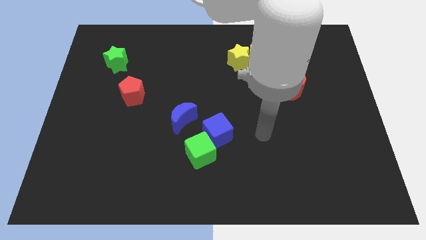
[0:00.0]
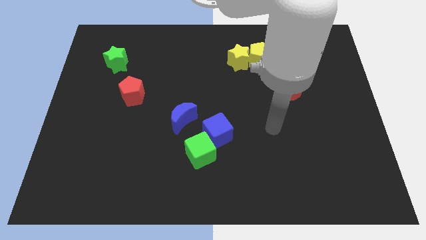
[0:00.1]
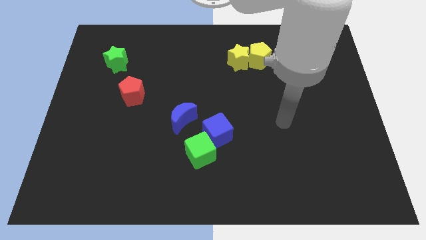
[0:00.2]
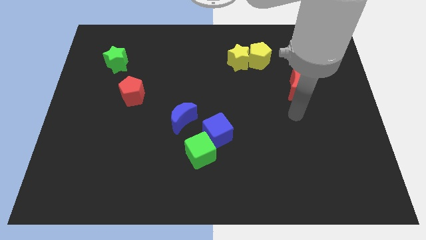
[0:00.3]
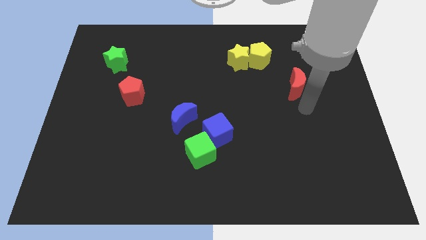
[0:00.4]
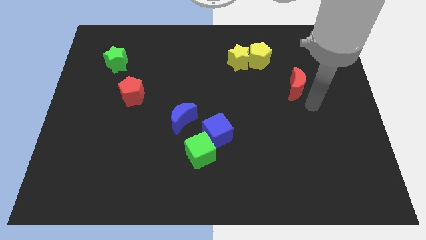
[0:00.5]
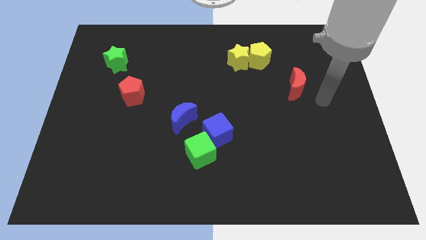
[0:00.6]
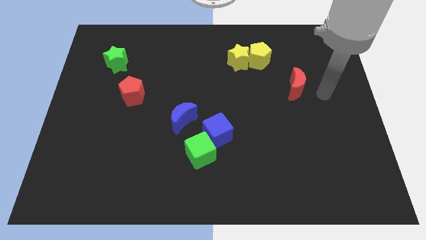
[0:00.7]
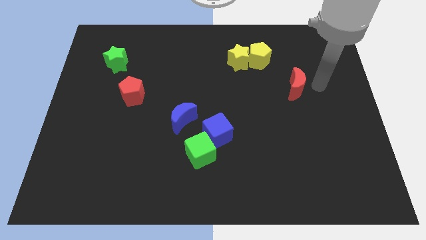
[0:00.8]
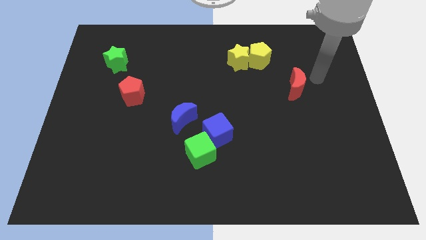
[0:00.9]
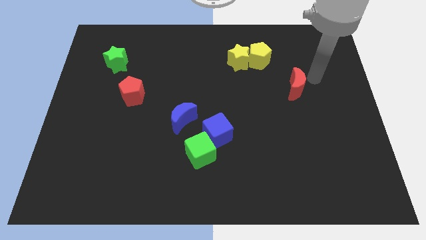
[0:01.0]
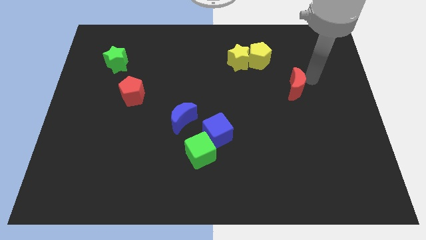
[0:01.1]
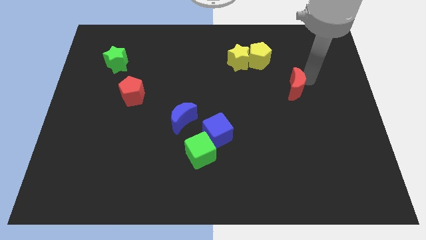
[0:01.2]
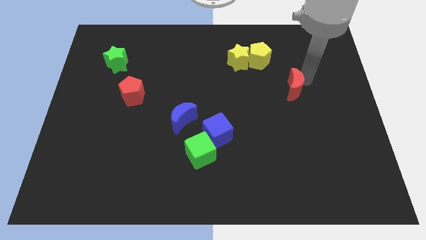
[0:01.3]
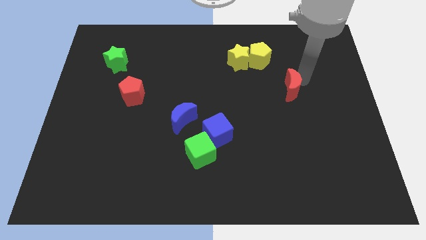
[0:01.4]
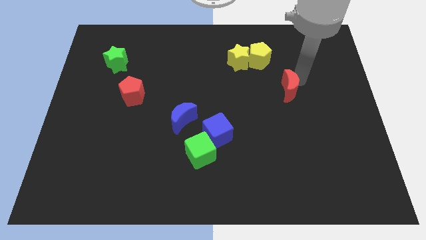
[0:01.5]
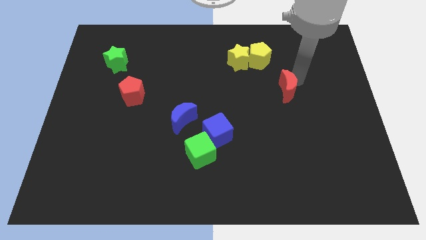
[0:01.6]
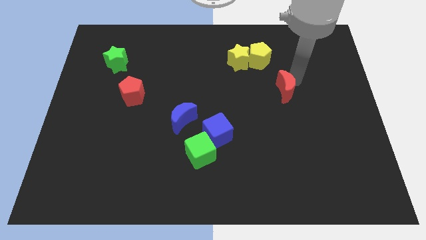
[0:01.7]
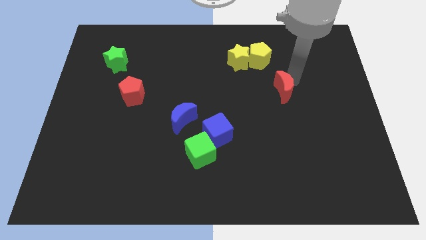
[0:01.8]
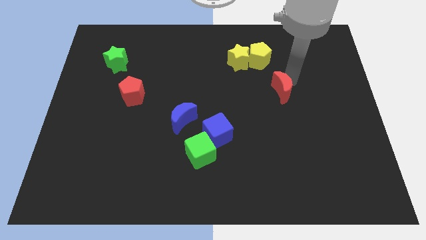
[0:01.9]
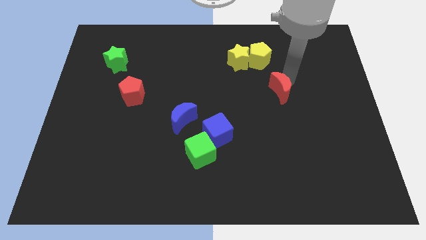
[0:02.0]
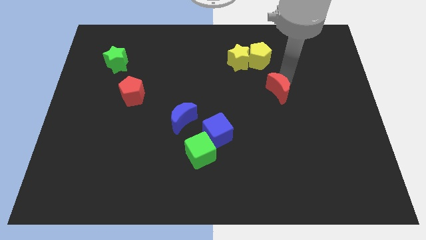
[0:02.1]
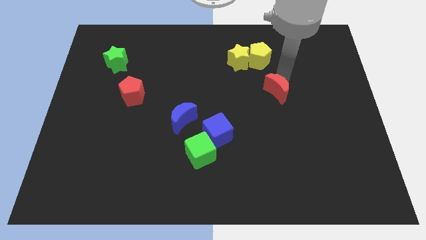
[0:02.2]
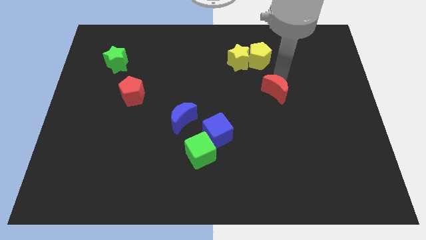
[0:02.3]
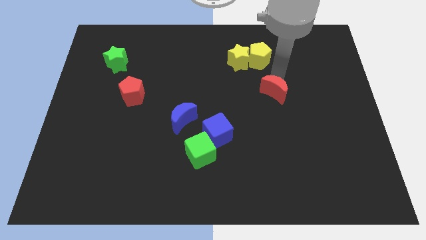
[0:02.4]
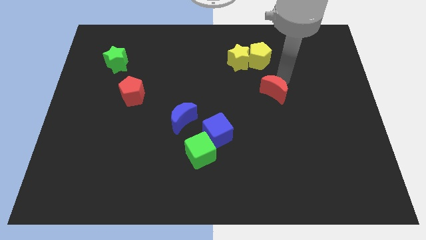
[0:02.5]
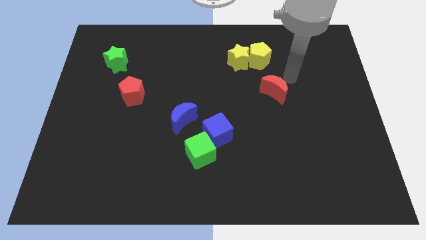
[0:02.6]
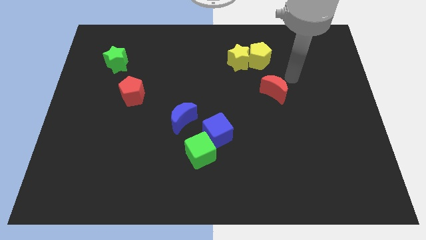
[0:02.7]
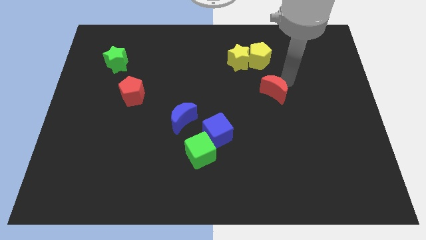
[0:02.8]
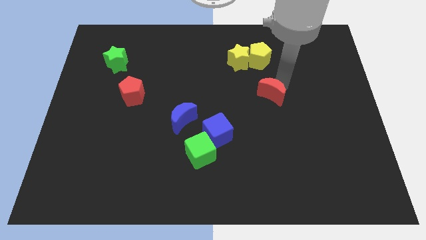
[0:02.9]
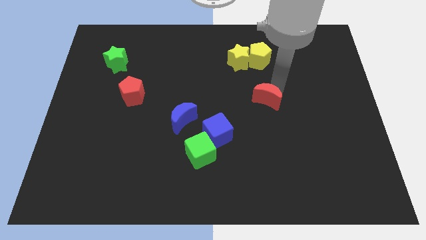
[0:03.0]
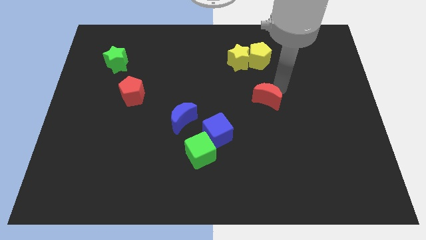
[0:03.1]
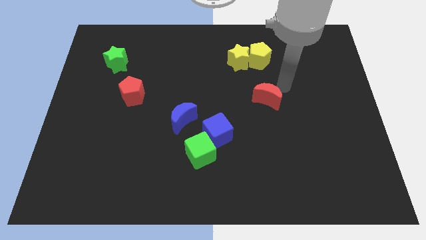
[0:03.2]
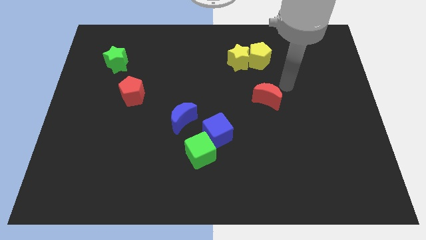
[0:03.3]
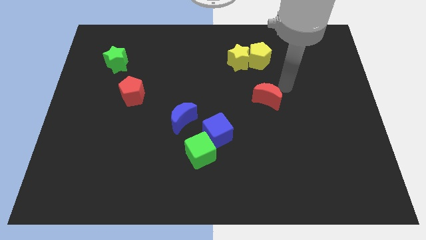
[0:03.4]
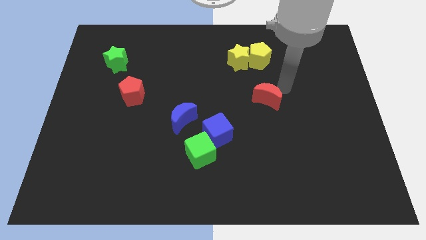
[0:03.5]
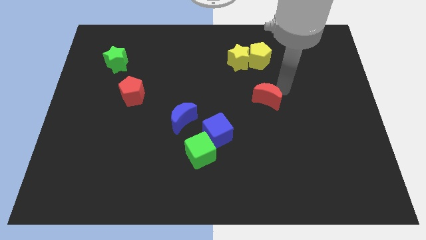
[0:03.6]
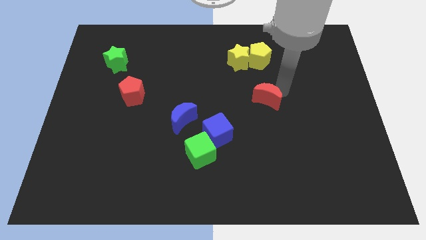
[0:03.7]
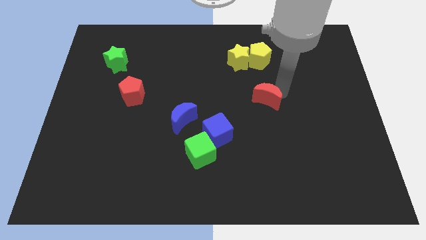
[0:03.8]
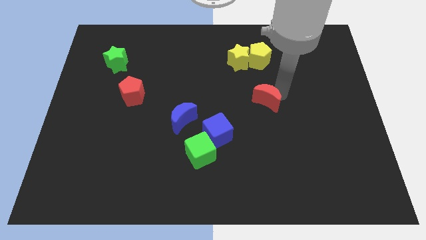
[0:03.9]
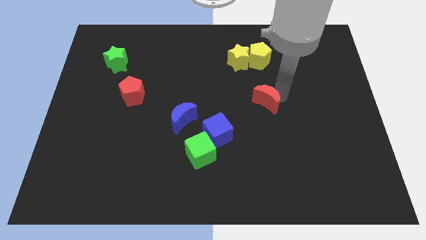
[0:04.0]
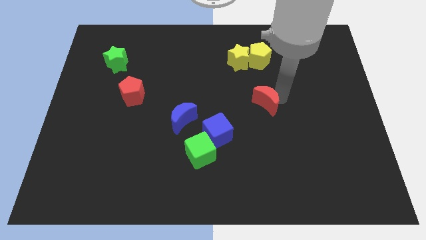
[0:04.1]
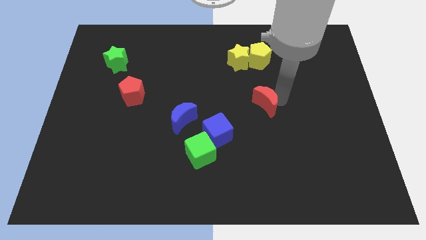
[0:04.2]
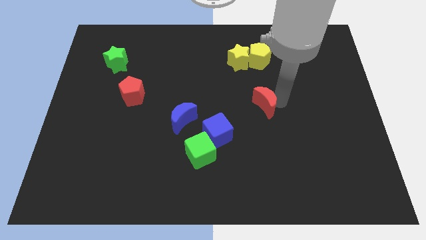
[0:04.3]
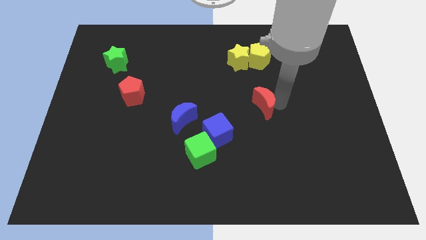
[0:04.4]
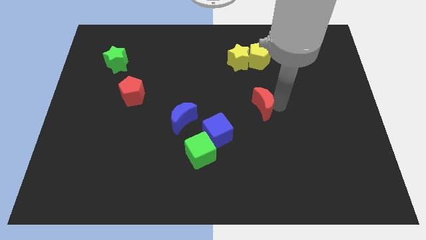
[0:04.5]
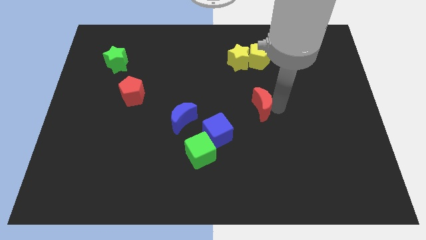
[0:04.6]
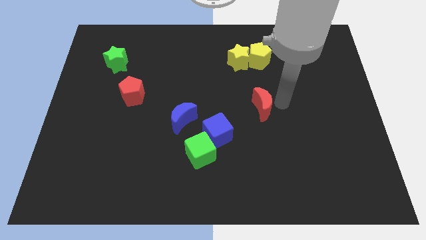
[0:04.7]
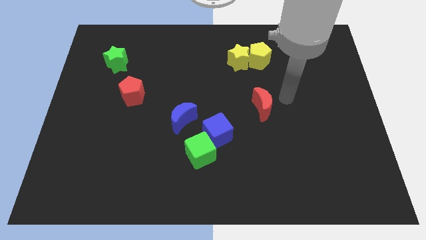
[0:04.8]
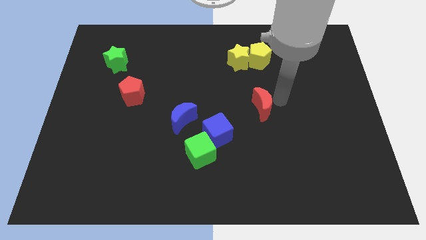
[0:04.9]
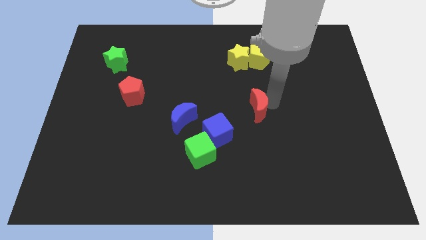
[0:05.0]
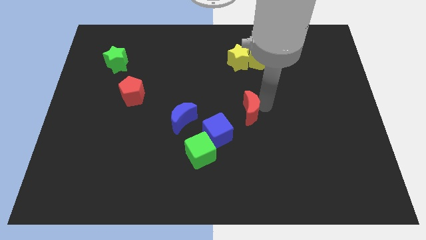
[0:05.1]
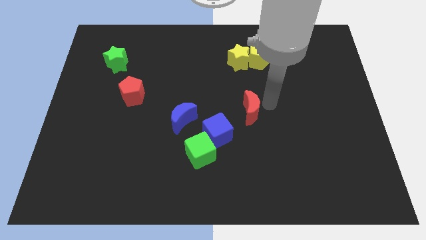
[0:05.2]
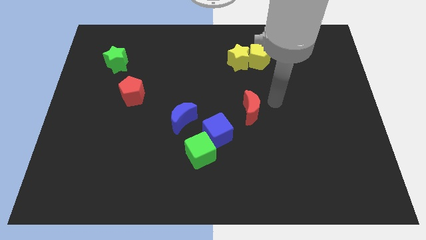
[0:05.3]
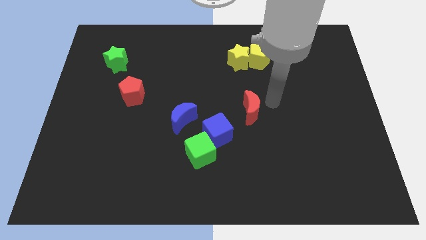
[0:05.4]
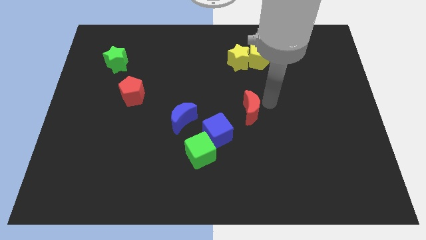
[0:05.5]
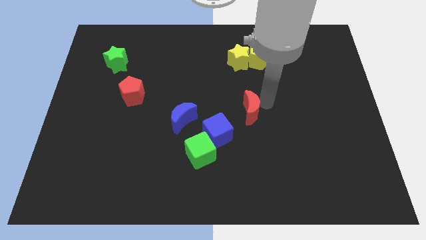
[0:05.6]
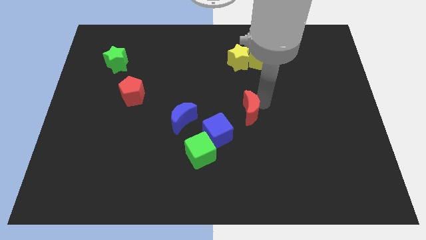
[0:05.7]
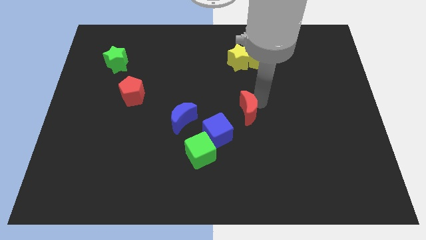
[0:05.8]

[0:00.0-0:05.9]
move the red moon to the right of the blue moon

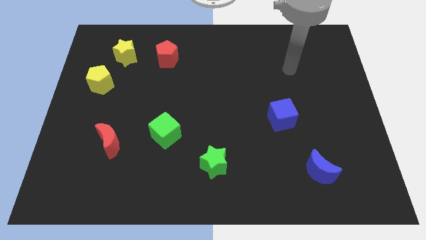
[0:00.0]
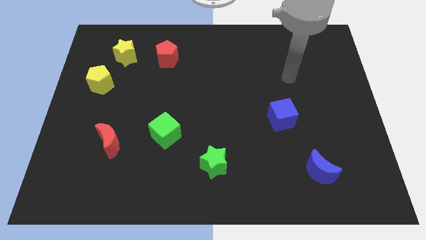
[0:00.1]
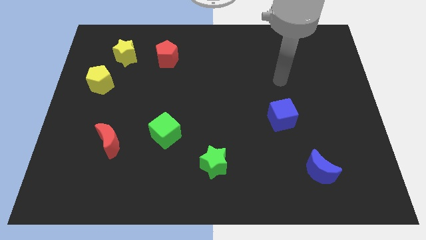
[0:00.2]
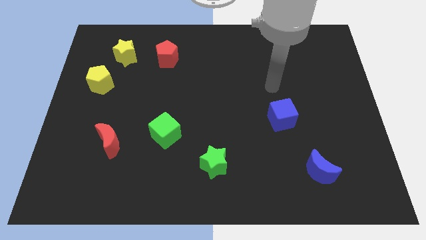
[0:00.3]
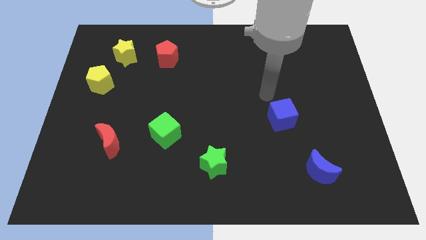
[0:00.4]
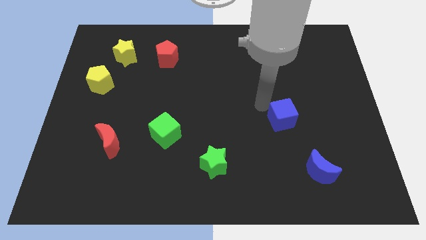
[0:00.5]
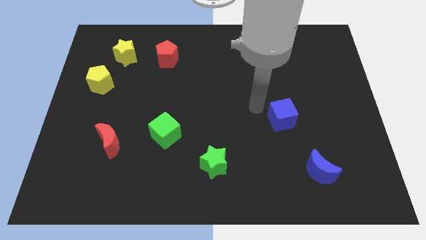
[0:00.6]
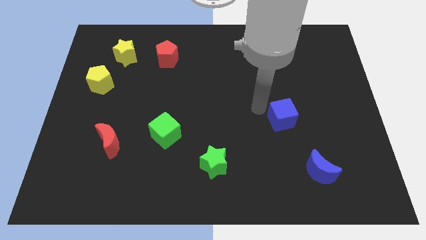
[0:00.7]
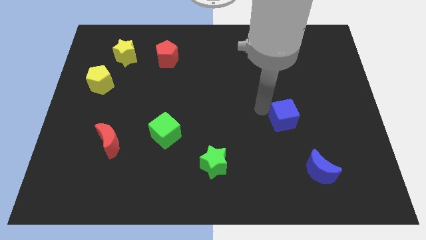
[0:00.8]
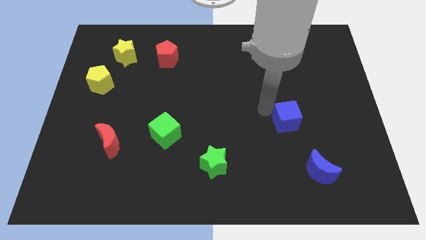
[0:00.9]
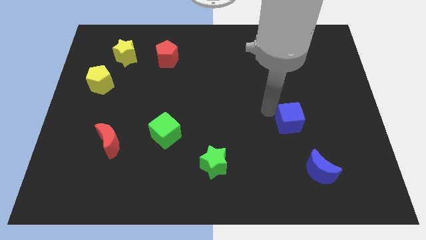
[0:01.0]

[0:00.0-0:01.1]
move the blue cube above the blue moon
